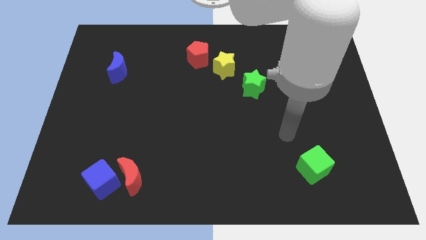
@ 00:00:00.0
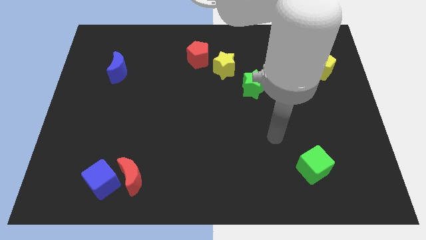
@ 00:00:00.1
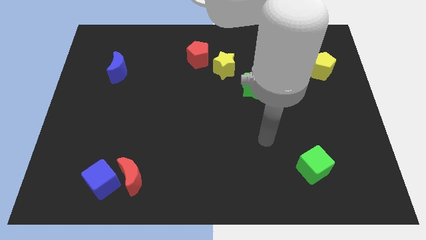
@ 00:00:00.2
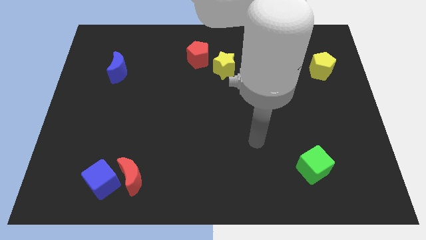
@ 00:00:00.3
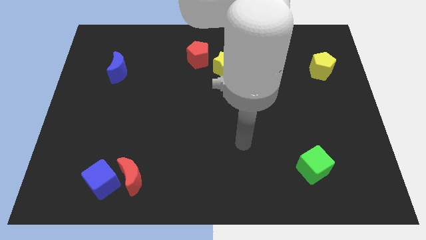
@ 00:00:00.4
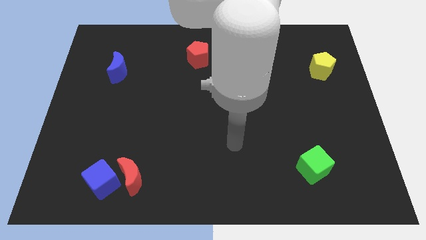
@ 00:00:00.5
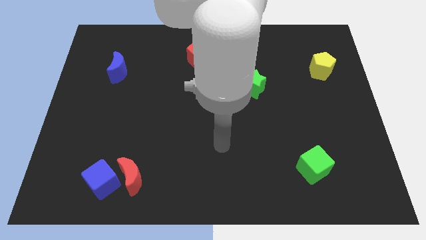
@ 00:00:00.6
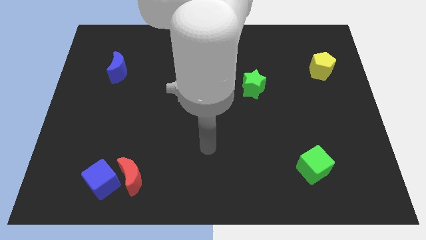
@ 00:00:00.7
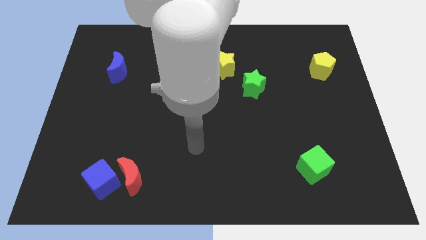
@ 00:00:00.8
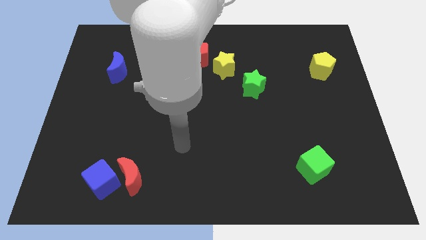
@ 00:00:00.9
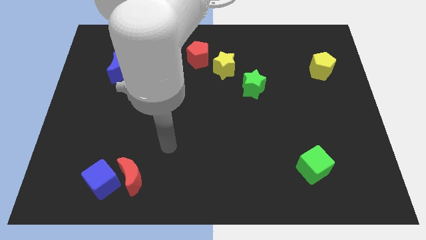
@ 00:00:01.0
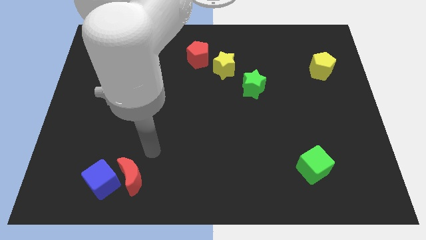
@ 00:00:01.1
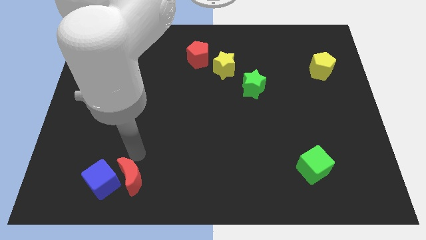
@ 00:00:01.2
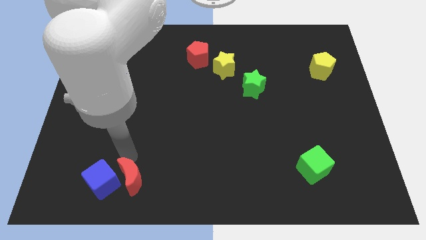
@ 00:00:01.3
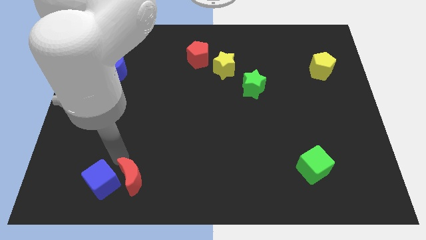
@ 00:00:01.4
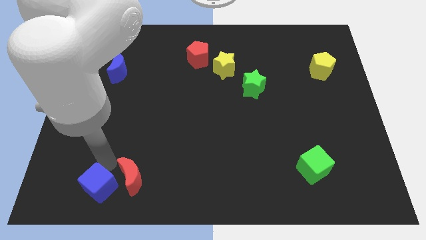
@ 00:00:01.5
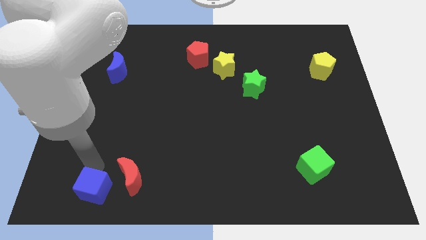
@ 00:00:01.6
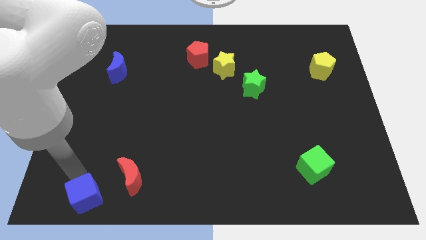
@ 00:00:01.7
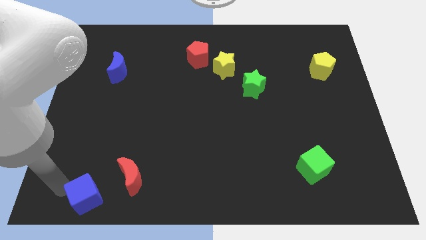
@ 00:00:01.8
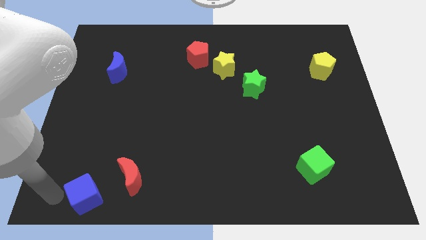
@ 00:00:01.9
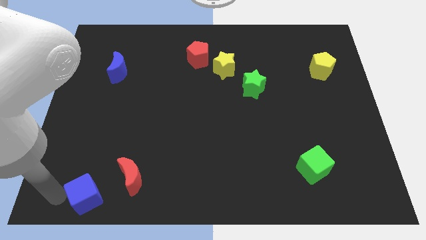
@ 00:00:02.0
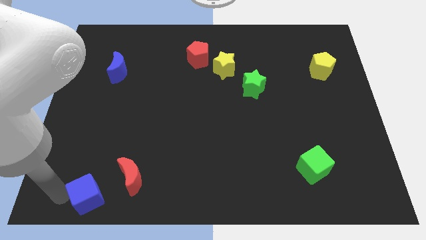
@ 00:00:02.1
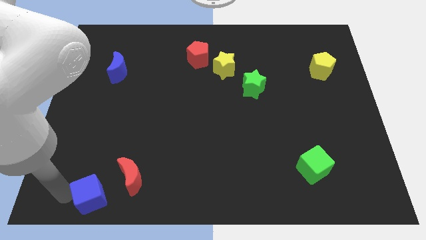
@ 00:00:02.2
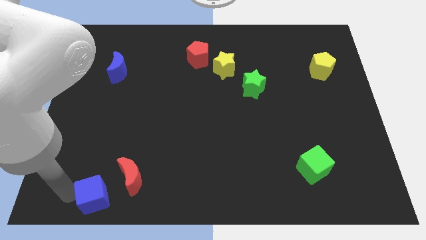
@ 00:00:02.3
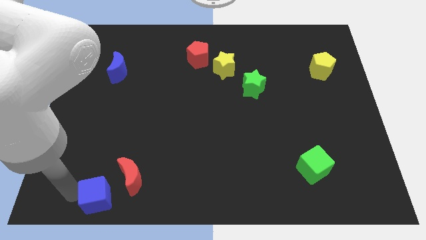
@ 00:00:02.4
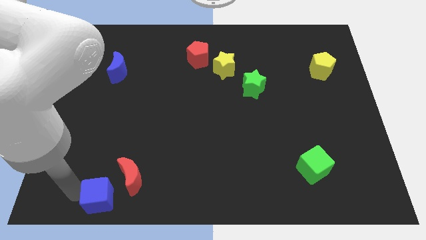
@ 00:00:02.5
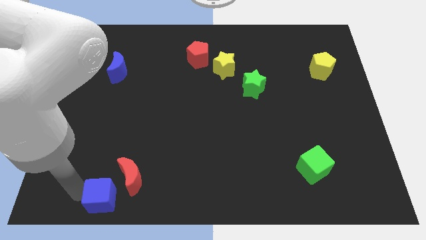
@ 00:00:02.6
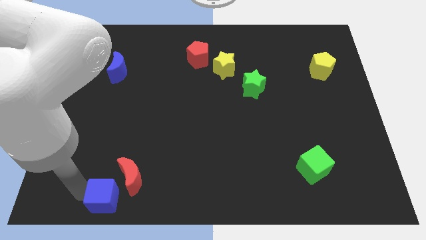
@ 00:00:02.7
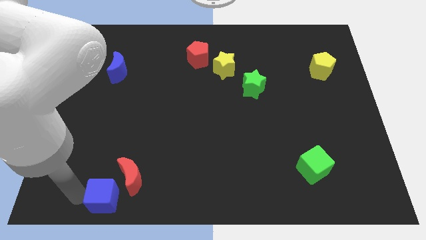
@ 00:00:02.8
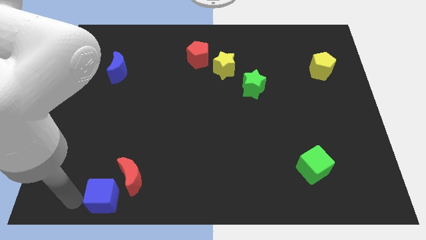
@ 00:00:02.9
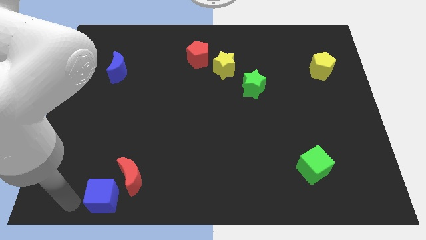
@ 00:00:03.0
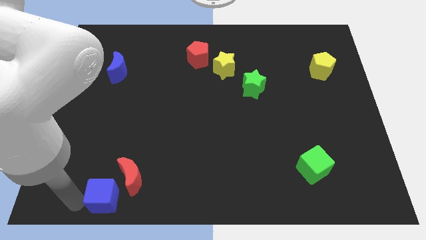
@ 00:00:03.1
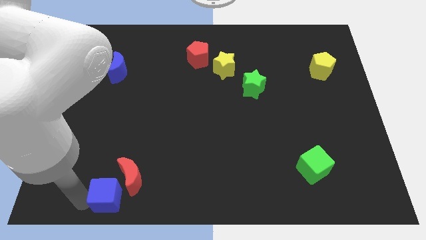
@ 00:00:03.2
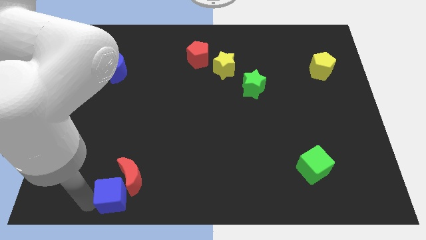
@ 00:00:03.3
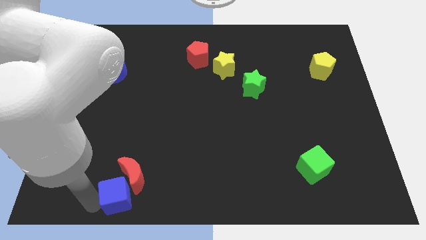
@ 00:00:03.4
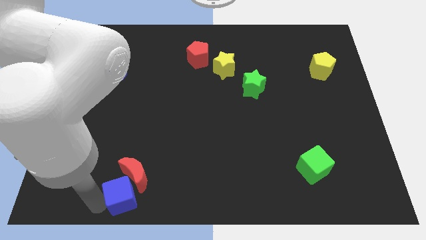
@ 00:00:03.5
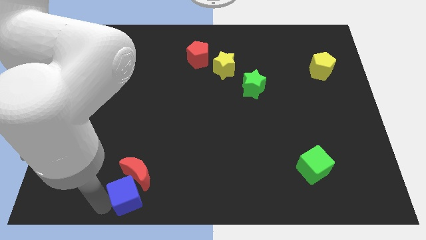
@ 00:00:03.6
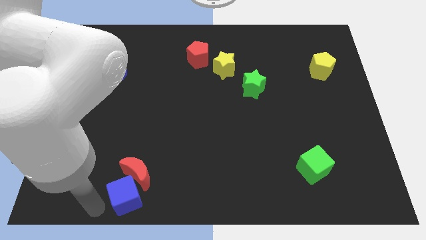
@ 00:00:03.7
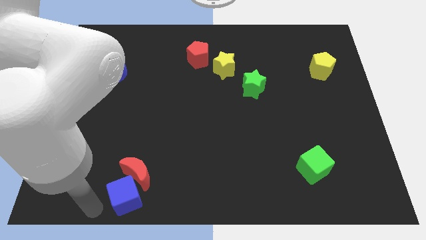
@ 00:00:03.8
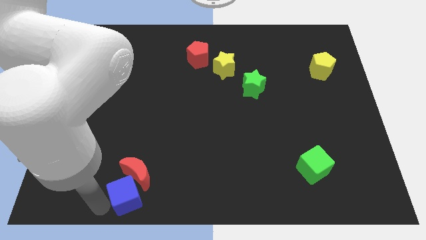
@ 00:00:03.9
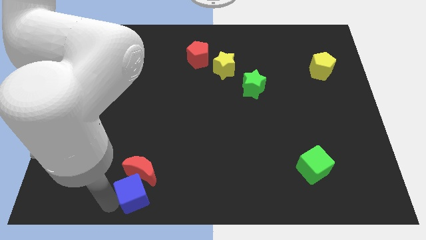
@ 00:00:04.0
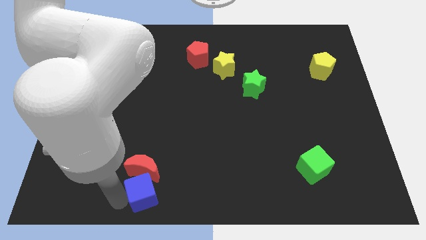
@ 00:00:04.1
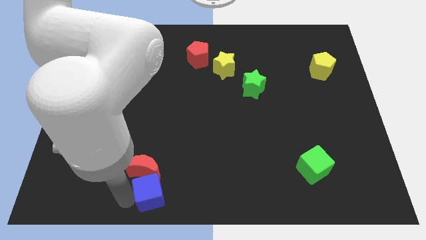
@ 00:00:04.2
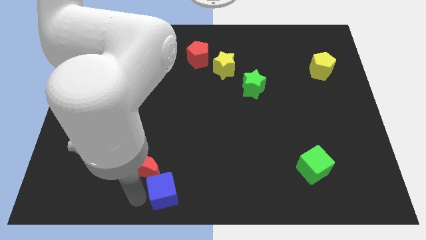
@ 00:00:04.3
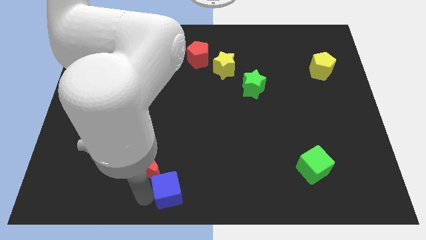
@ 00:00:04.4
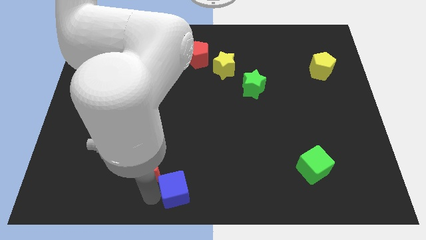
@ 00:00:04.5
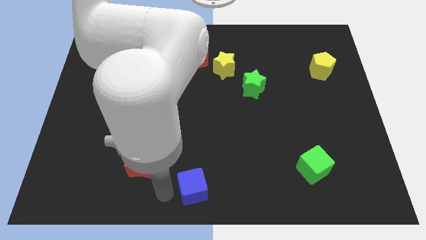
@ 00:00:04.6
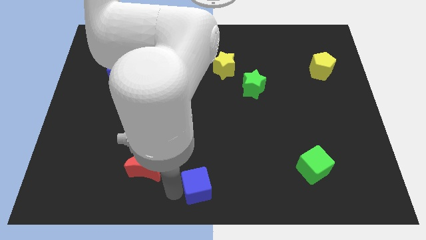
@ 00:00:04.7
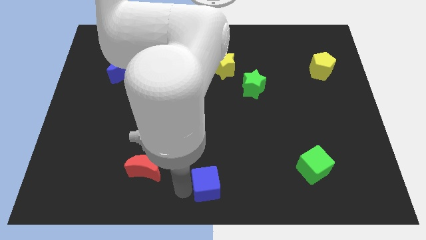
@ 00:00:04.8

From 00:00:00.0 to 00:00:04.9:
push the blue cube to the right

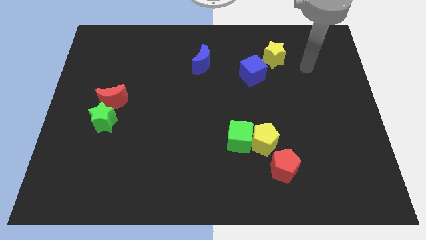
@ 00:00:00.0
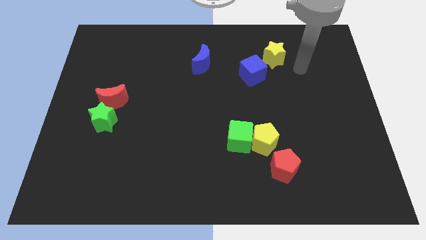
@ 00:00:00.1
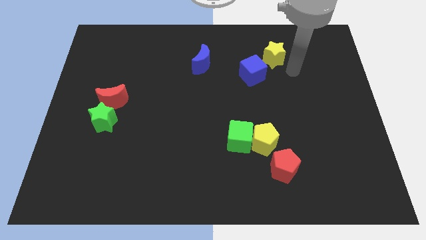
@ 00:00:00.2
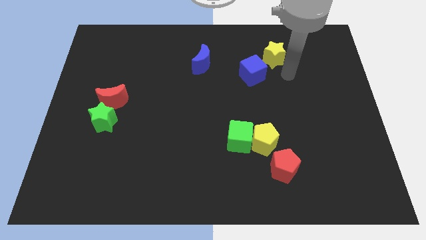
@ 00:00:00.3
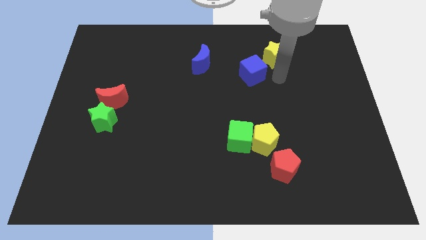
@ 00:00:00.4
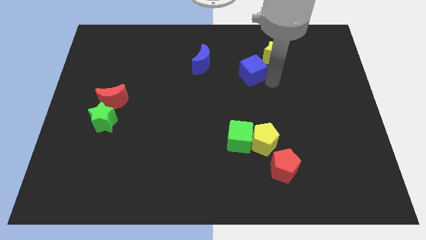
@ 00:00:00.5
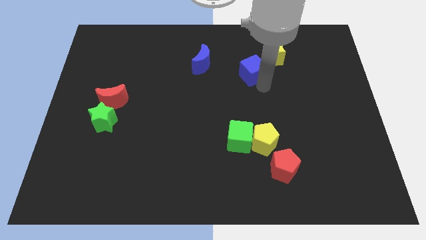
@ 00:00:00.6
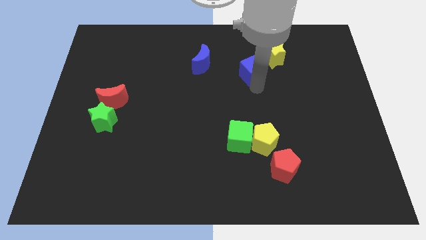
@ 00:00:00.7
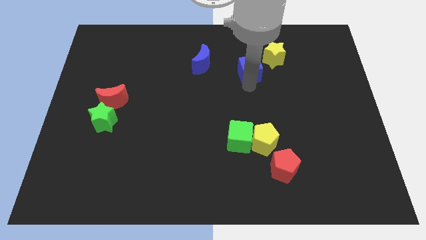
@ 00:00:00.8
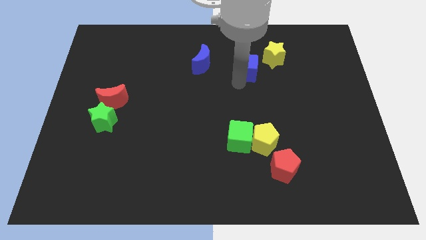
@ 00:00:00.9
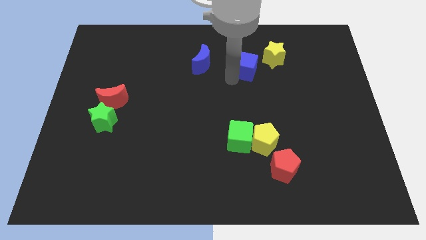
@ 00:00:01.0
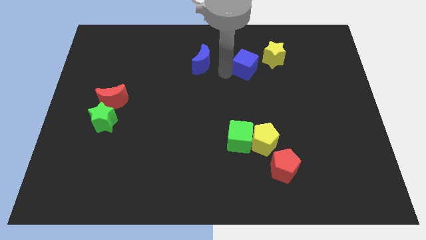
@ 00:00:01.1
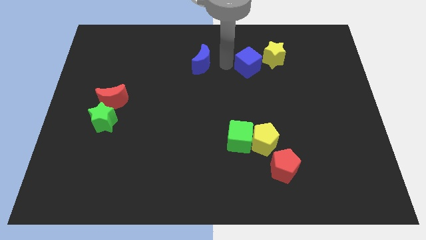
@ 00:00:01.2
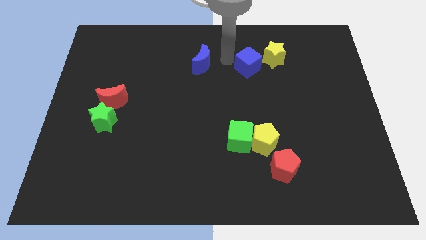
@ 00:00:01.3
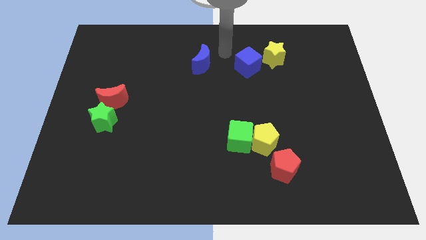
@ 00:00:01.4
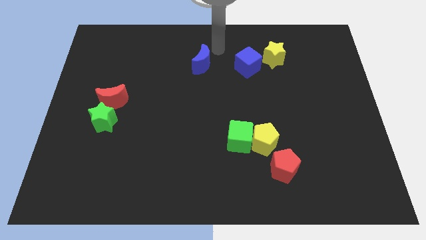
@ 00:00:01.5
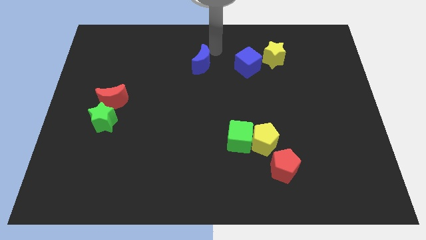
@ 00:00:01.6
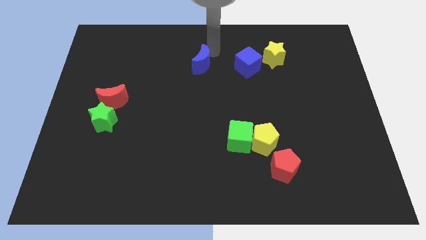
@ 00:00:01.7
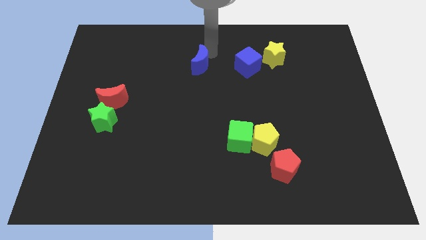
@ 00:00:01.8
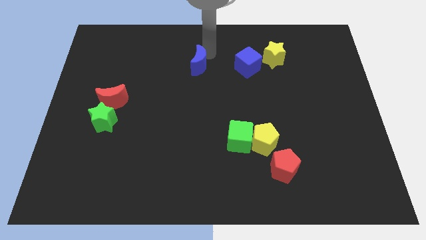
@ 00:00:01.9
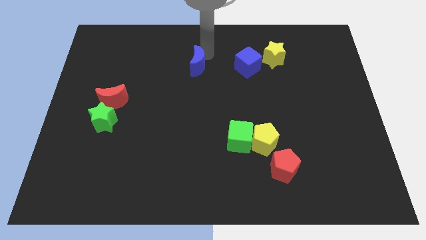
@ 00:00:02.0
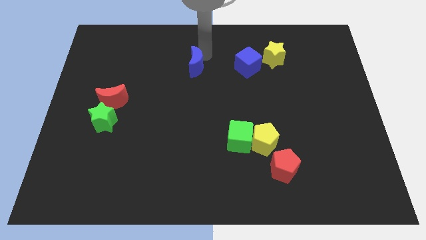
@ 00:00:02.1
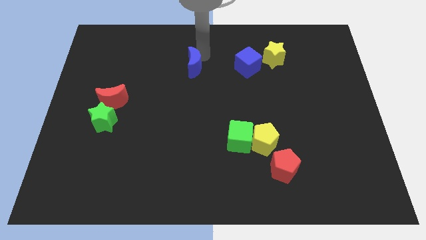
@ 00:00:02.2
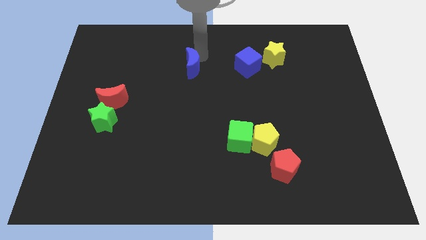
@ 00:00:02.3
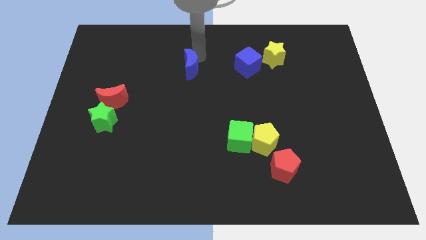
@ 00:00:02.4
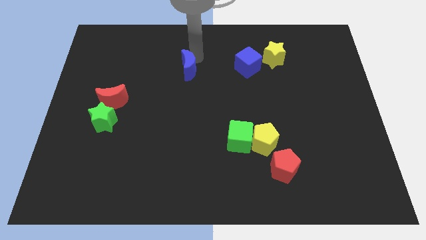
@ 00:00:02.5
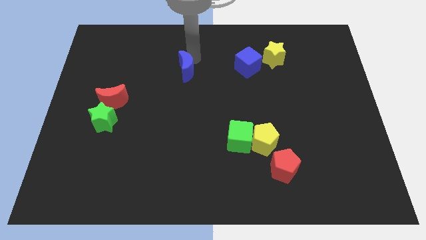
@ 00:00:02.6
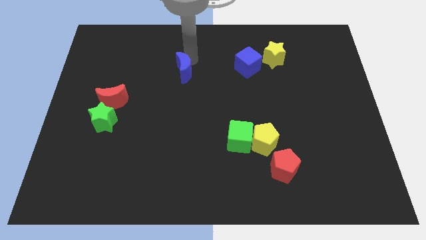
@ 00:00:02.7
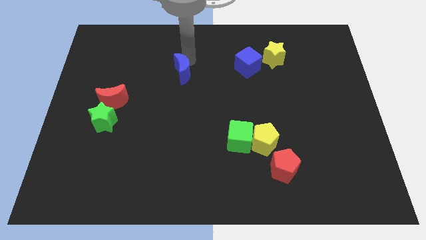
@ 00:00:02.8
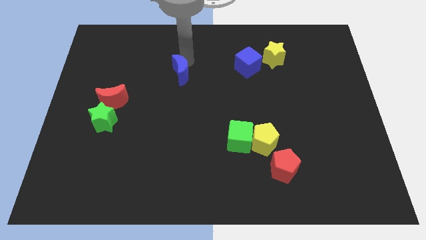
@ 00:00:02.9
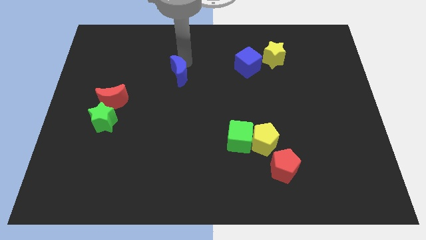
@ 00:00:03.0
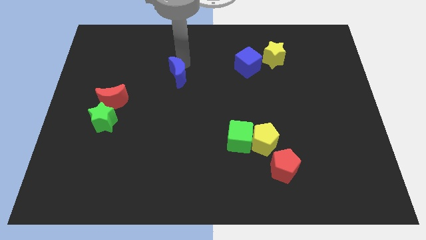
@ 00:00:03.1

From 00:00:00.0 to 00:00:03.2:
push the blue moon diagonally downwards and to the left a little bit
